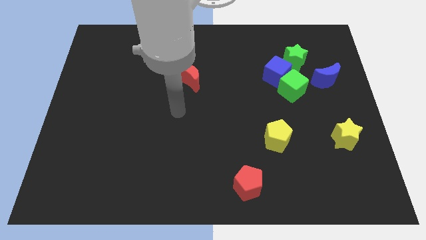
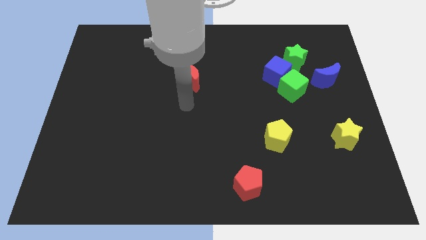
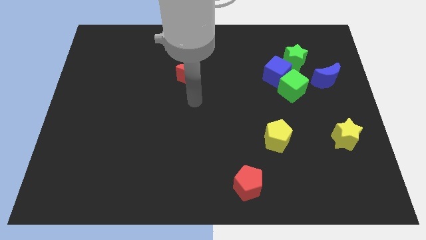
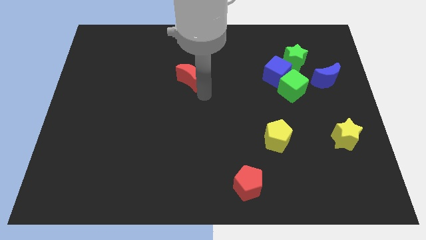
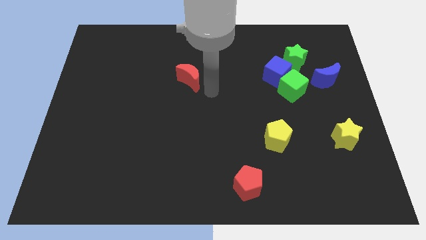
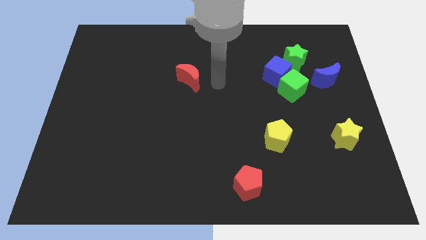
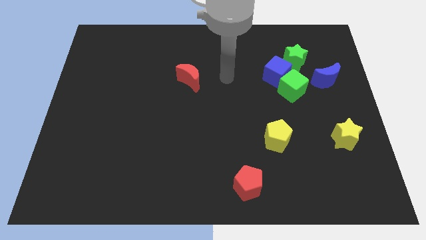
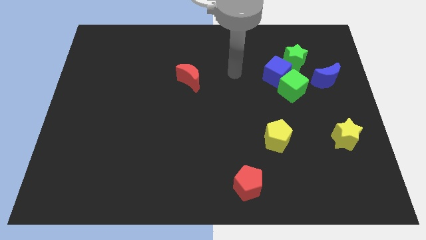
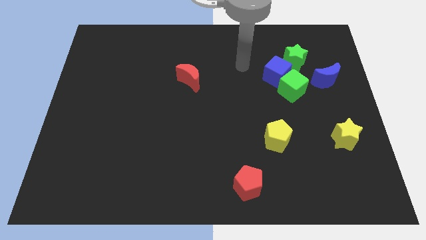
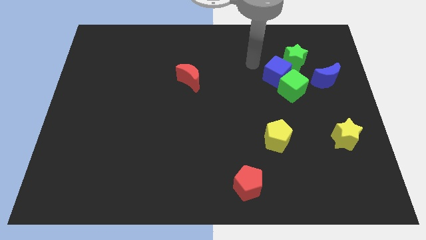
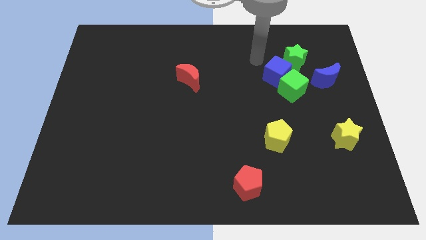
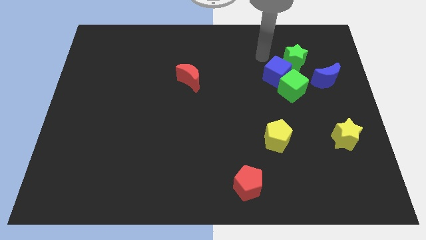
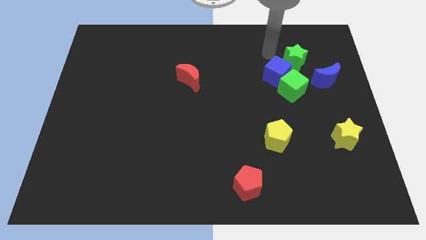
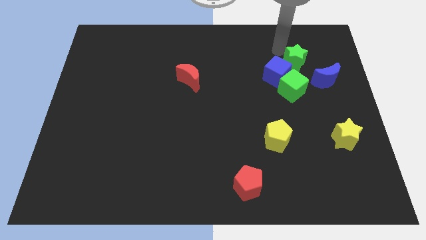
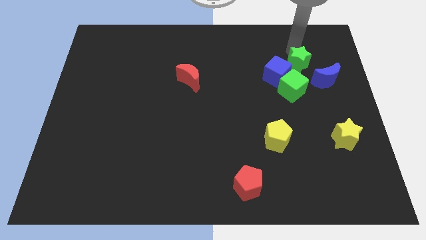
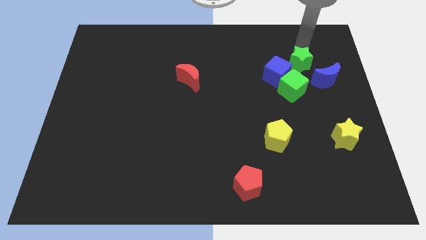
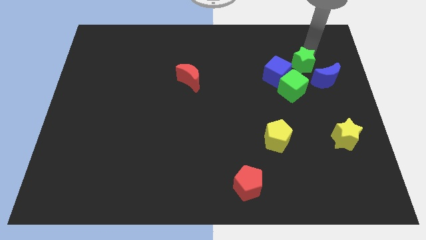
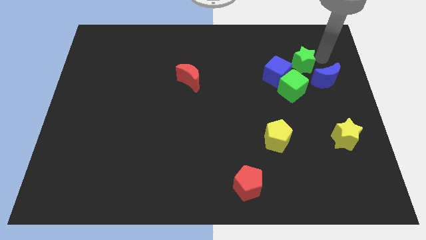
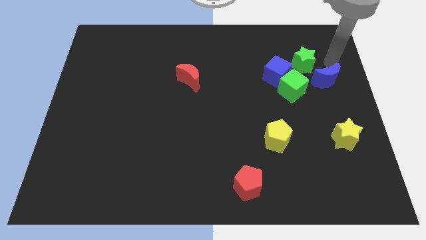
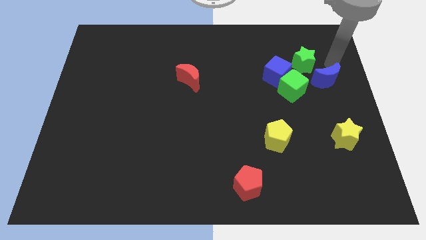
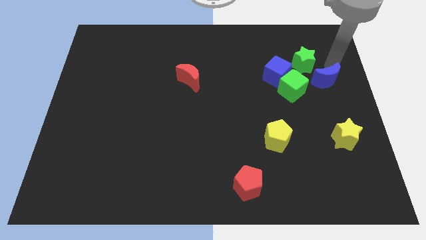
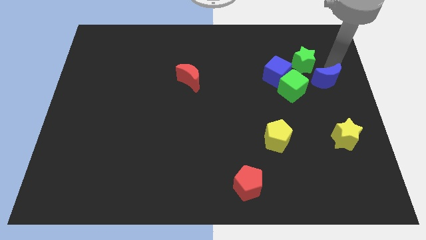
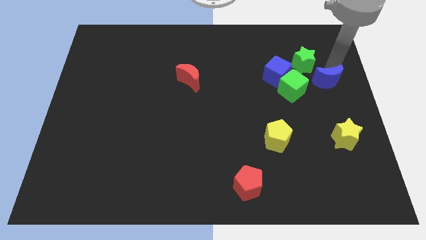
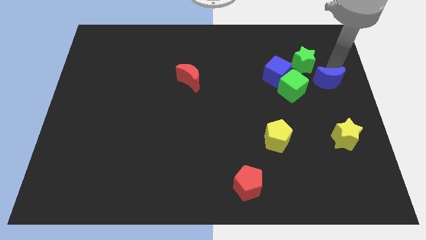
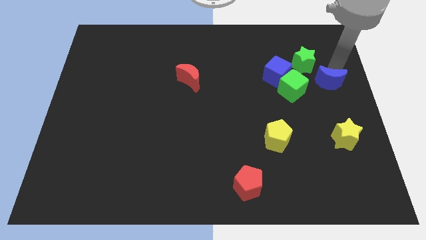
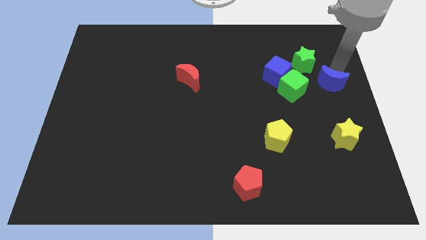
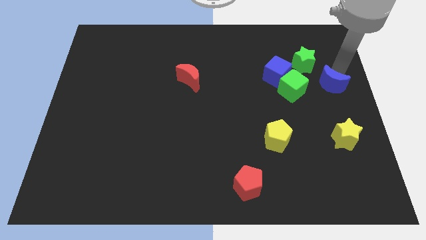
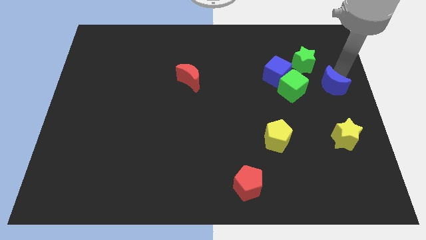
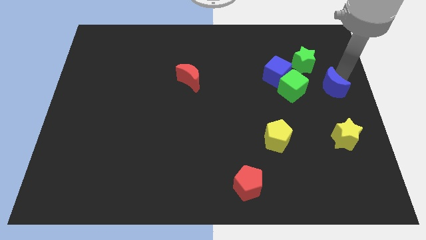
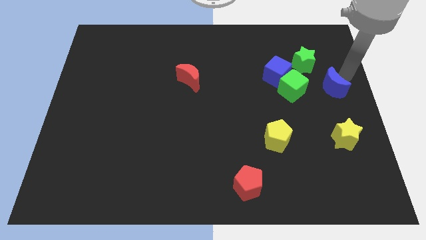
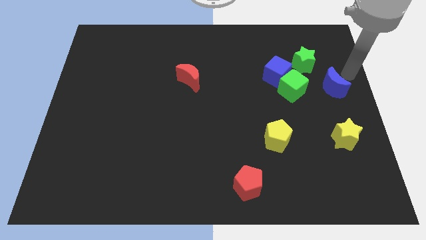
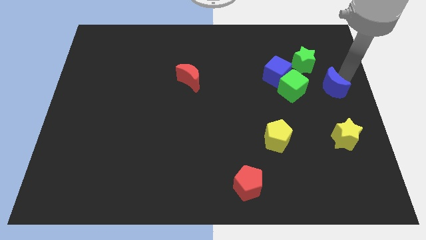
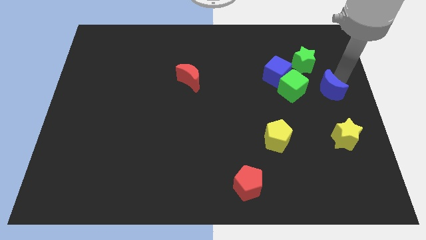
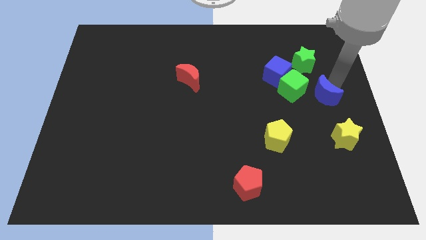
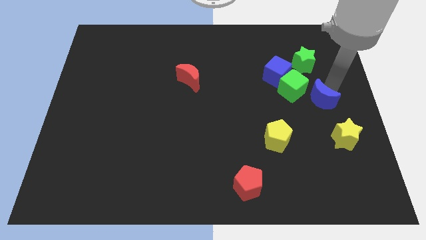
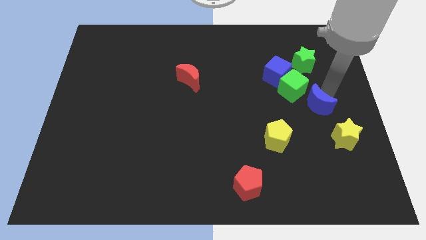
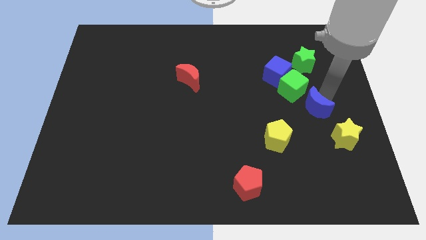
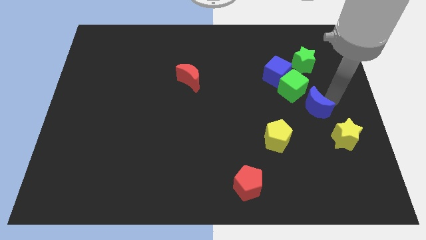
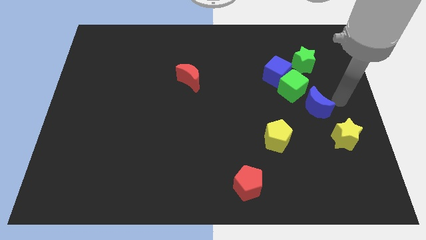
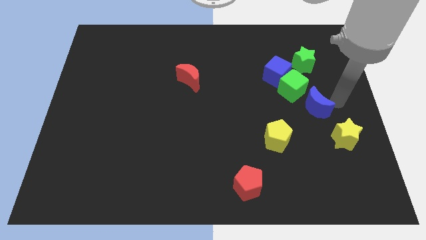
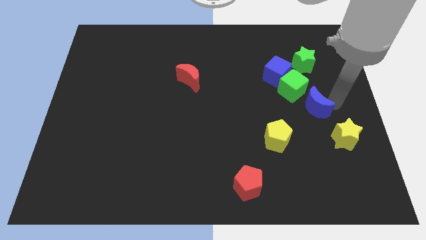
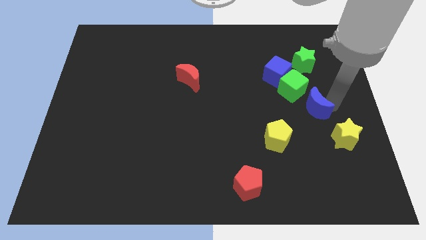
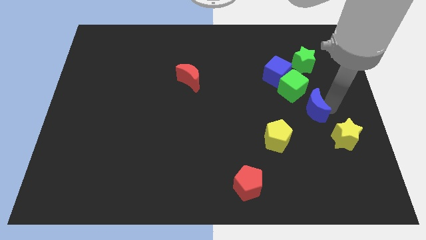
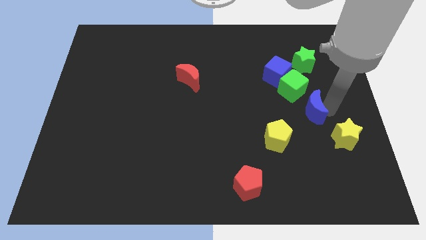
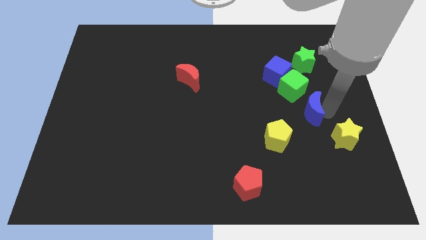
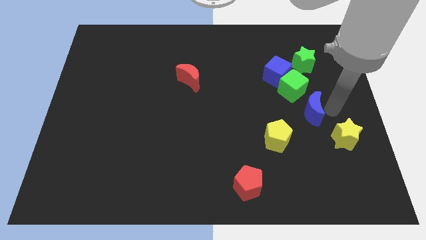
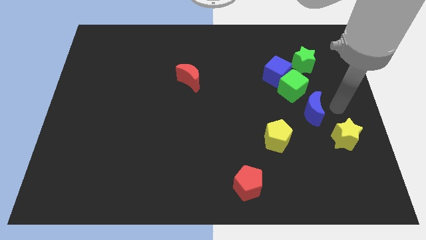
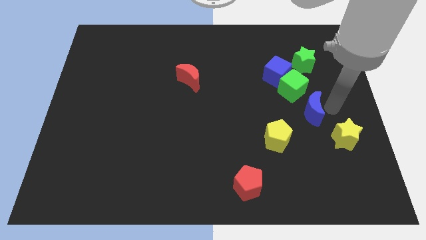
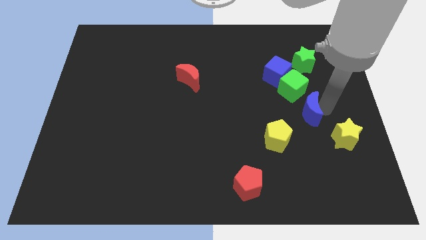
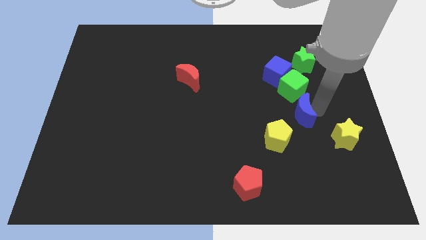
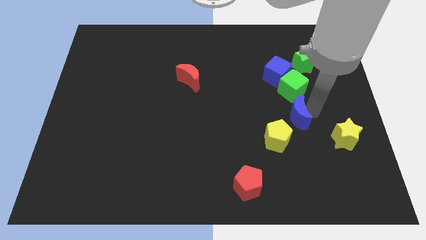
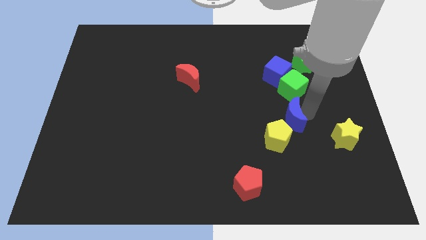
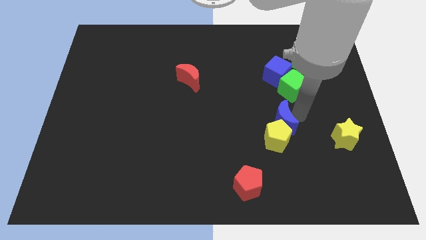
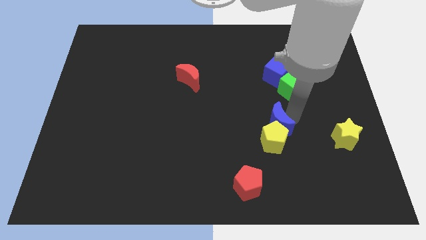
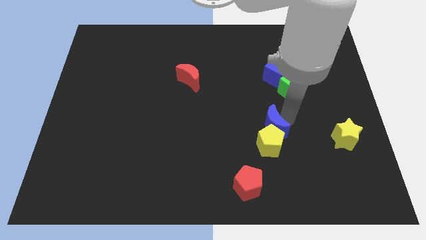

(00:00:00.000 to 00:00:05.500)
slide the blue moon down and to the left diagonally

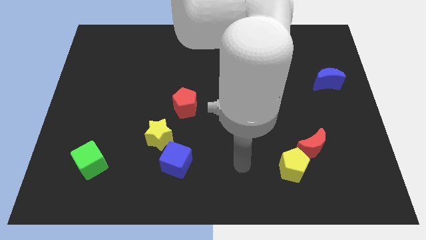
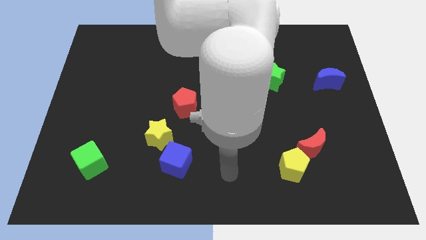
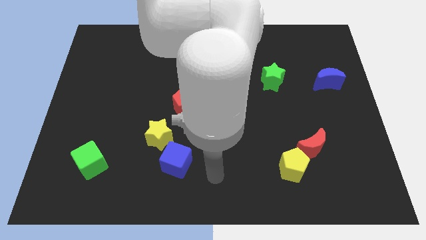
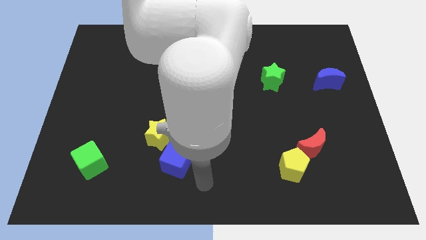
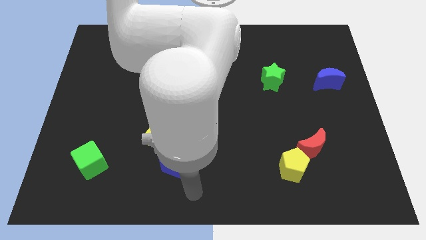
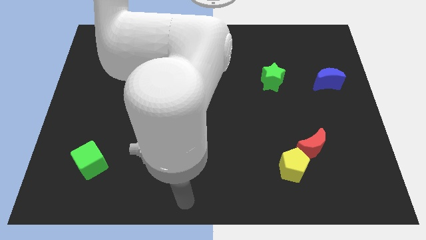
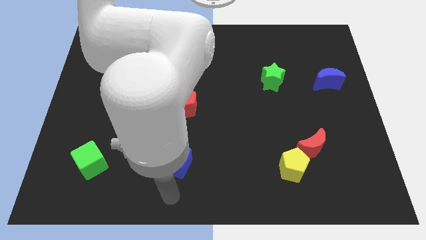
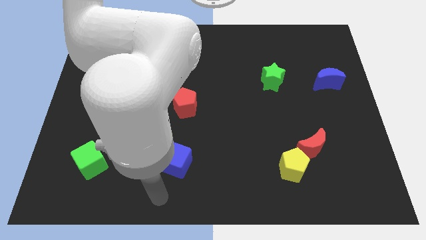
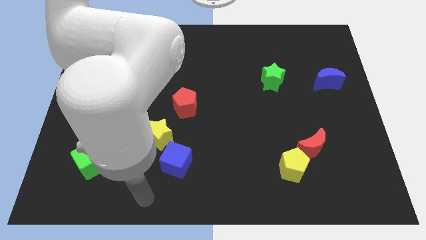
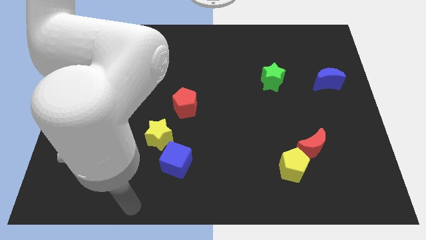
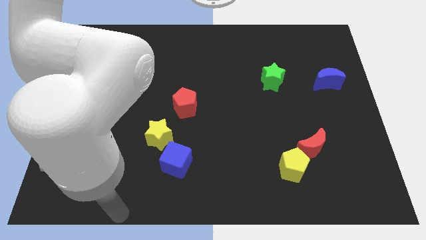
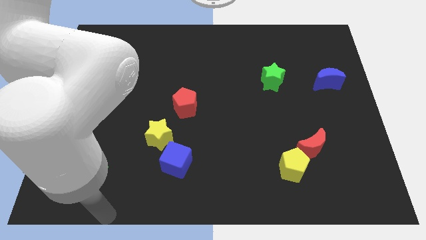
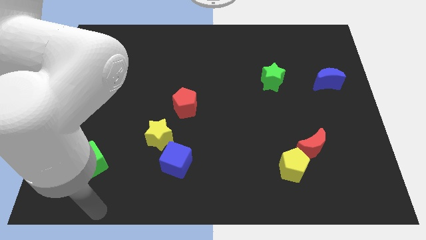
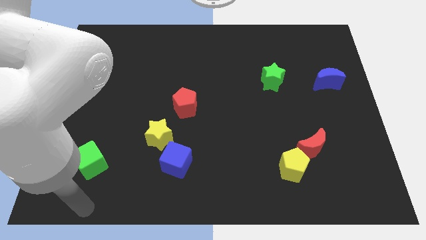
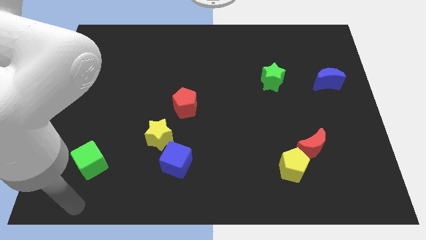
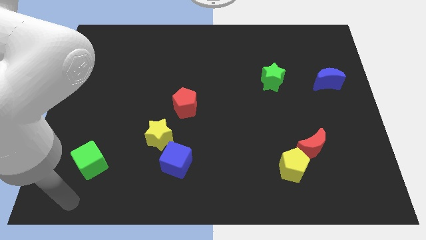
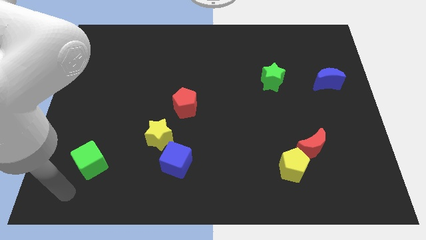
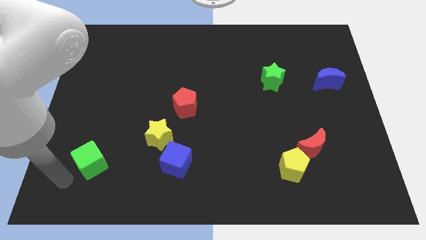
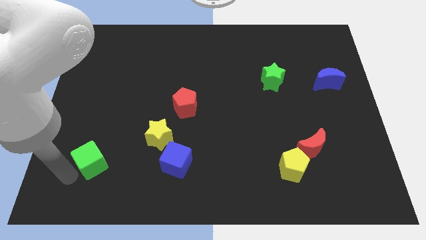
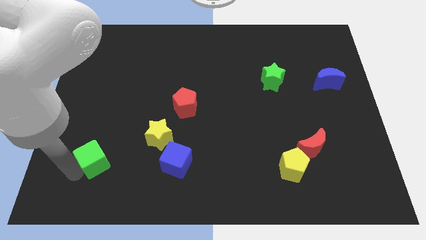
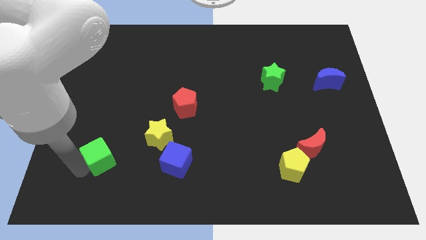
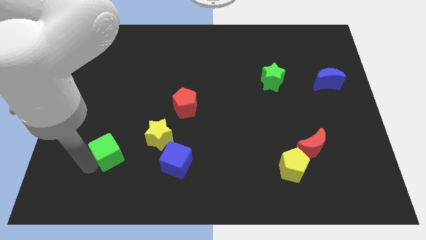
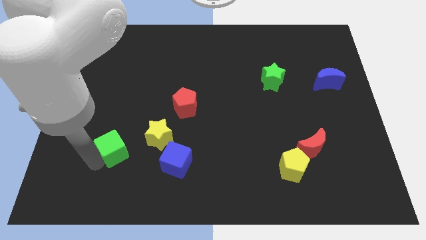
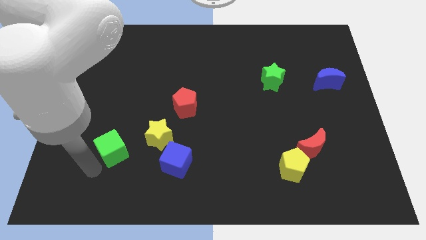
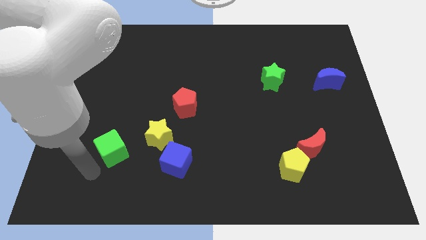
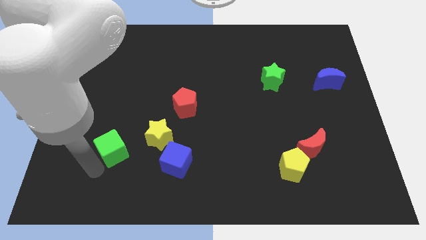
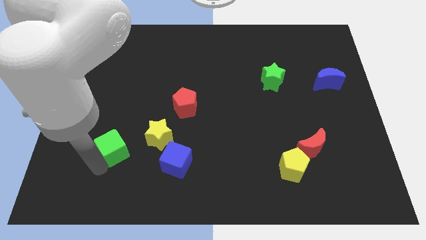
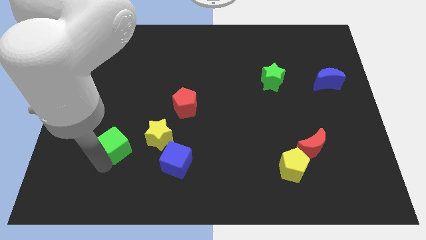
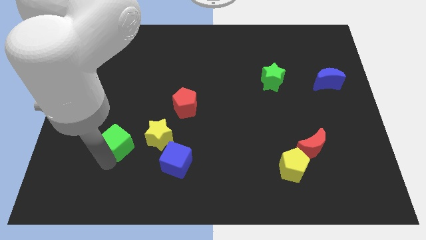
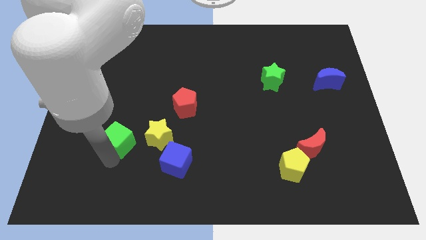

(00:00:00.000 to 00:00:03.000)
slightly slide the green cube diagonally upwards and to the right
